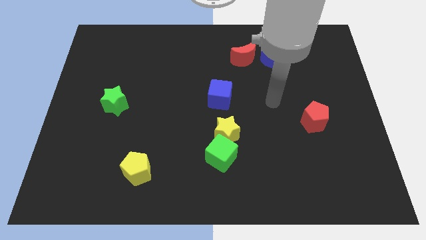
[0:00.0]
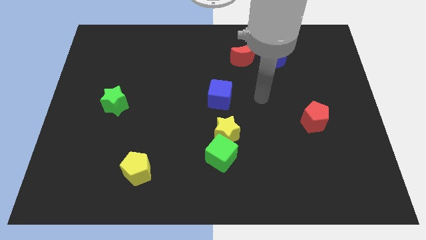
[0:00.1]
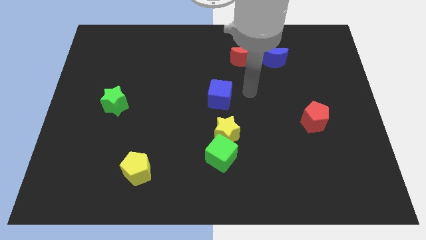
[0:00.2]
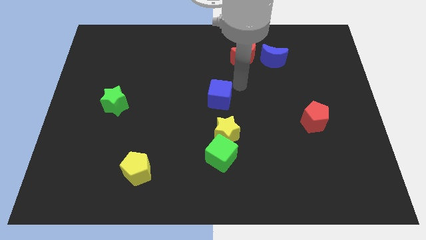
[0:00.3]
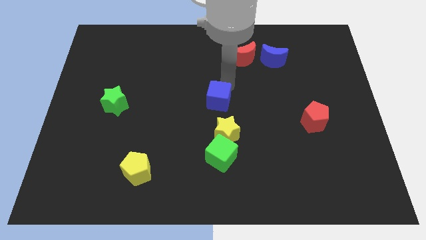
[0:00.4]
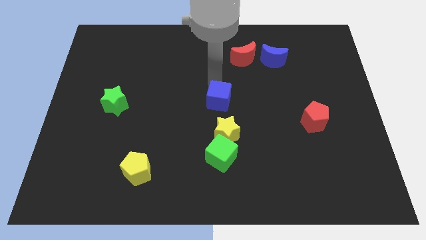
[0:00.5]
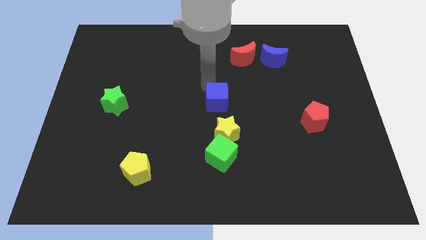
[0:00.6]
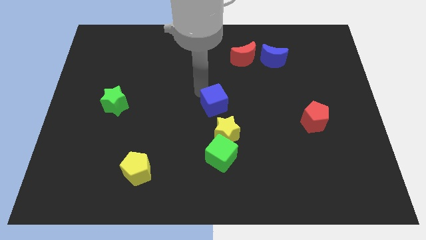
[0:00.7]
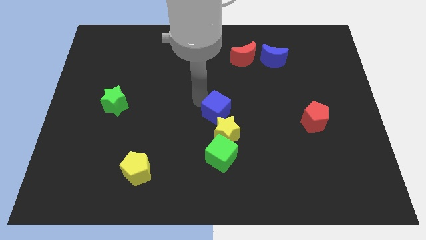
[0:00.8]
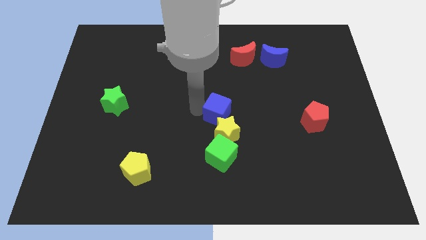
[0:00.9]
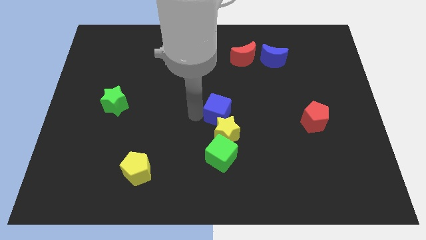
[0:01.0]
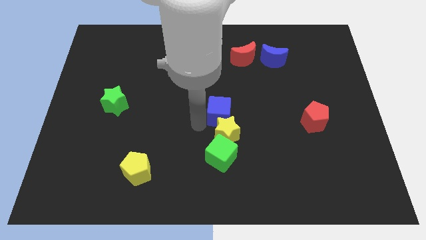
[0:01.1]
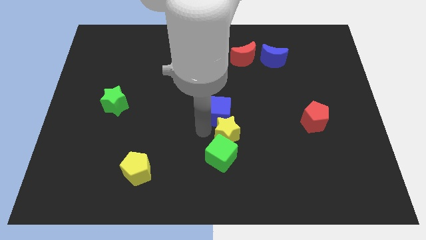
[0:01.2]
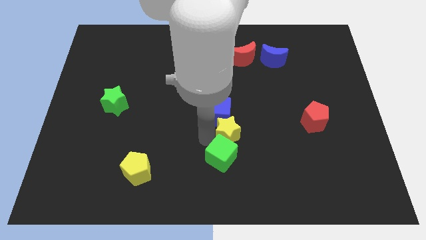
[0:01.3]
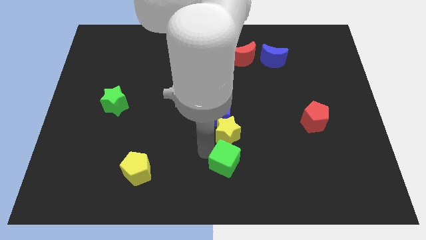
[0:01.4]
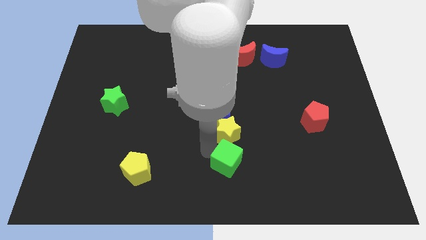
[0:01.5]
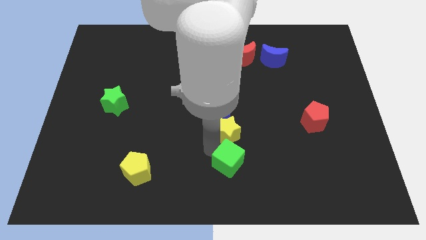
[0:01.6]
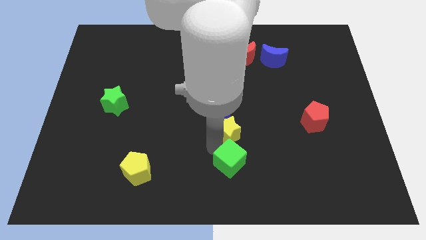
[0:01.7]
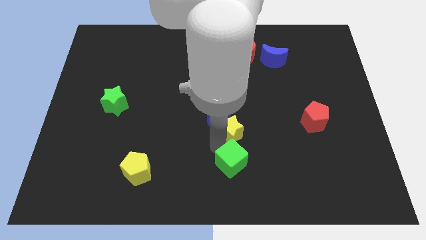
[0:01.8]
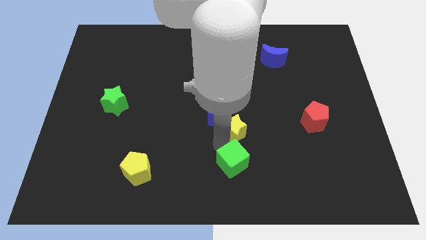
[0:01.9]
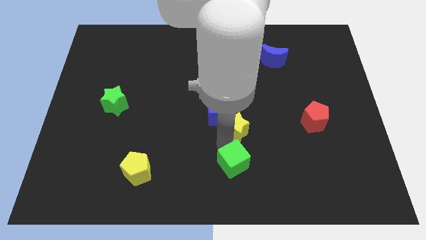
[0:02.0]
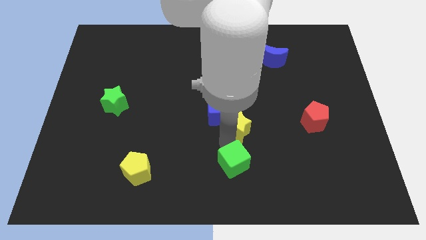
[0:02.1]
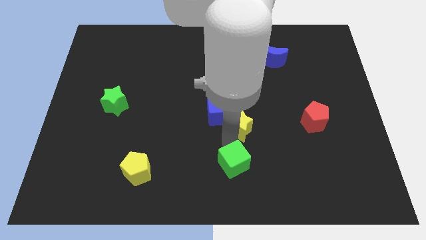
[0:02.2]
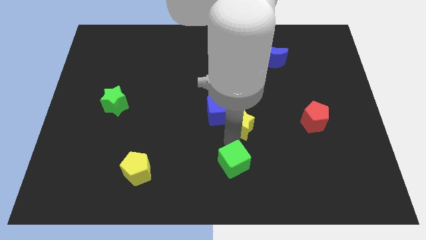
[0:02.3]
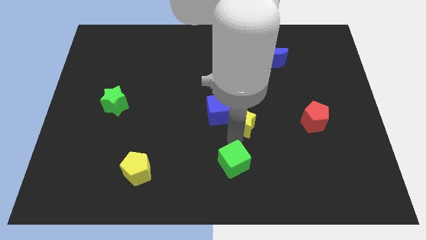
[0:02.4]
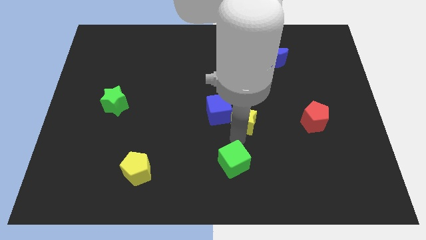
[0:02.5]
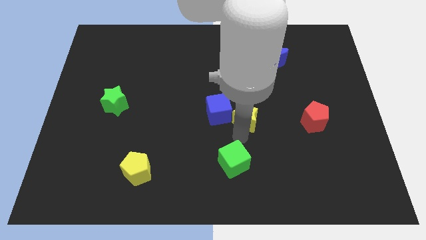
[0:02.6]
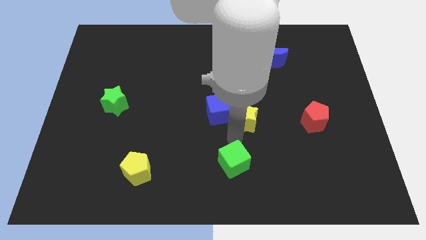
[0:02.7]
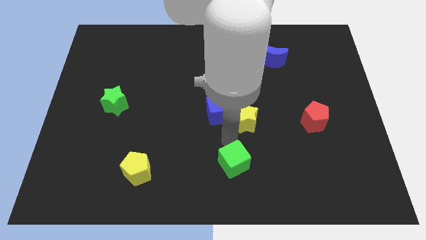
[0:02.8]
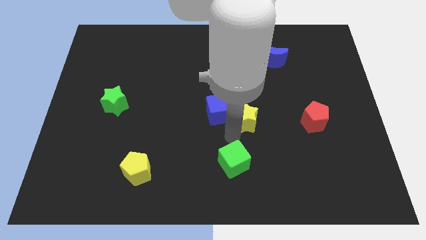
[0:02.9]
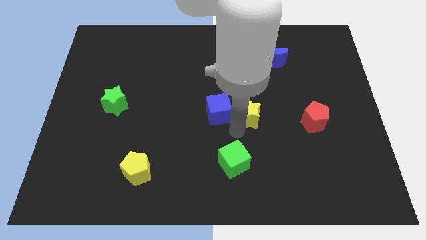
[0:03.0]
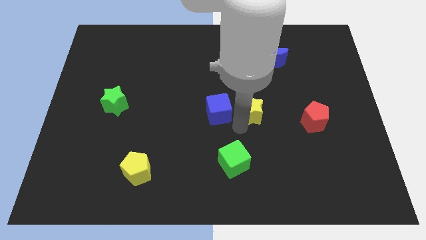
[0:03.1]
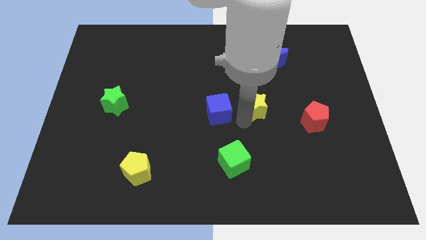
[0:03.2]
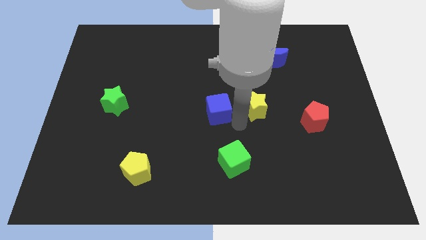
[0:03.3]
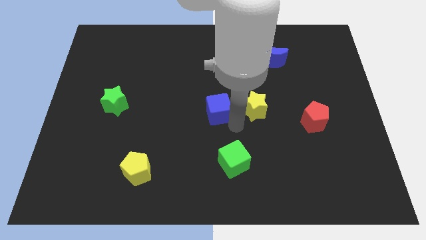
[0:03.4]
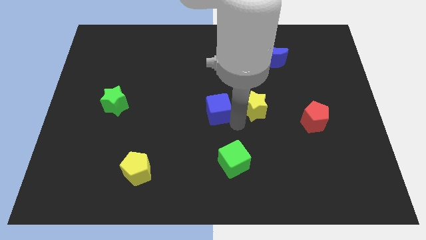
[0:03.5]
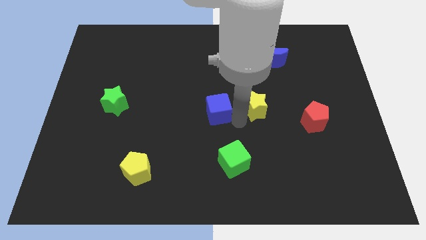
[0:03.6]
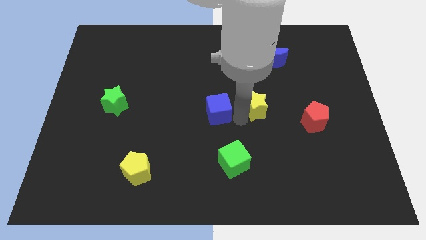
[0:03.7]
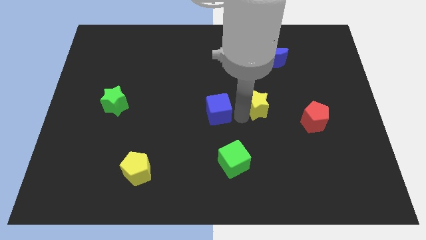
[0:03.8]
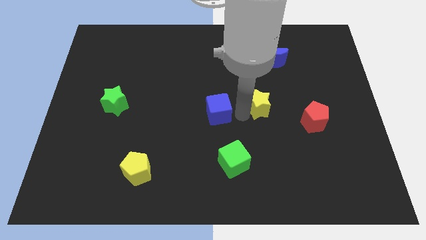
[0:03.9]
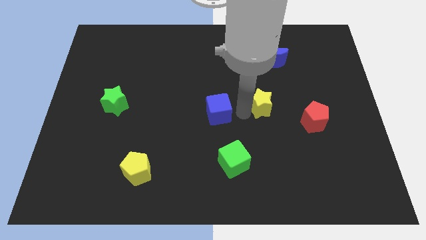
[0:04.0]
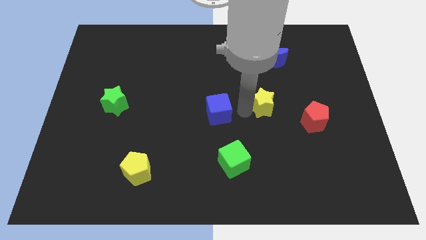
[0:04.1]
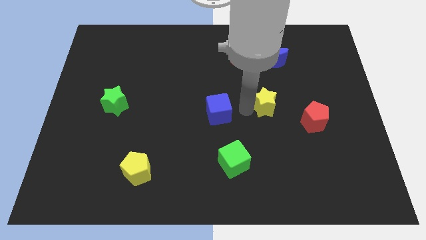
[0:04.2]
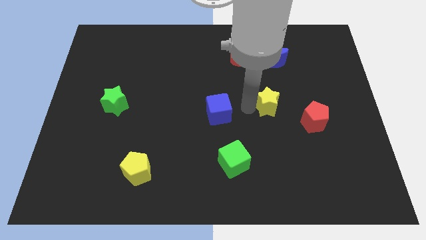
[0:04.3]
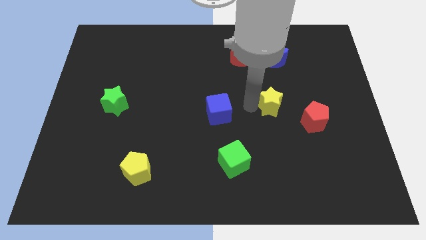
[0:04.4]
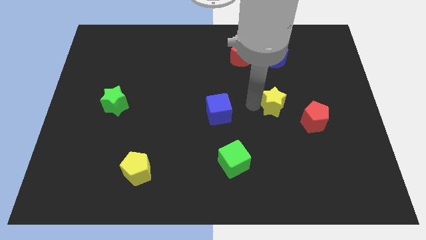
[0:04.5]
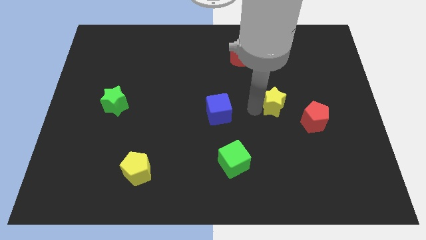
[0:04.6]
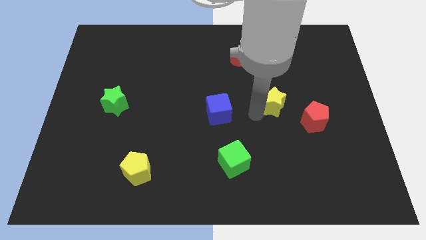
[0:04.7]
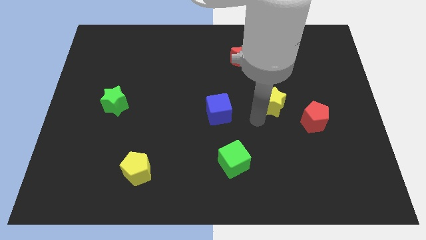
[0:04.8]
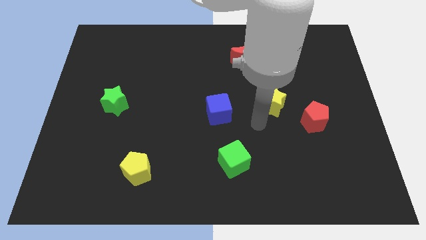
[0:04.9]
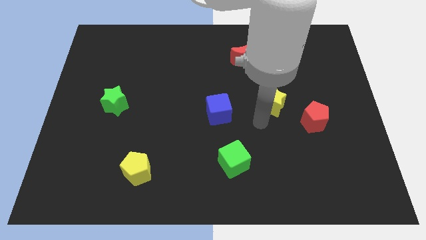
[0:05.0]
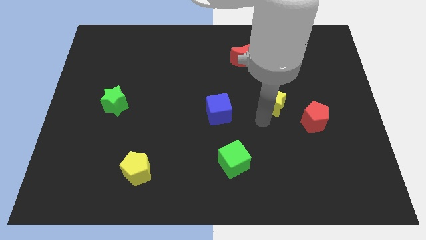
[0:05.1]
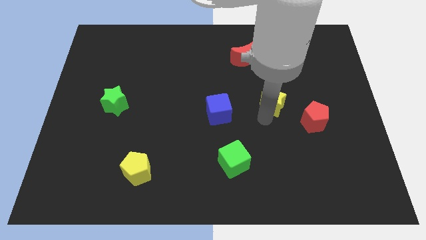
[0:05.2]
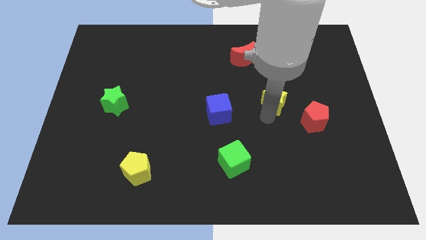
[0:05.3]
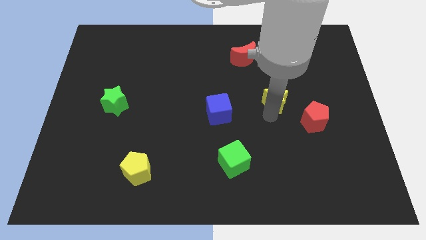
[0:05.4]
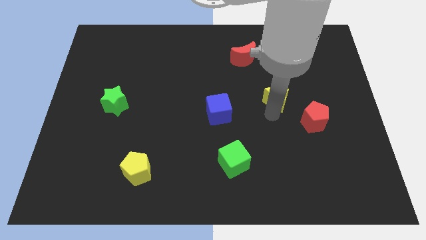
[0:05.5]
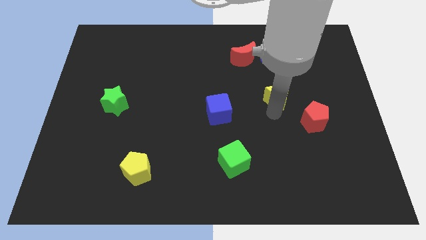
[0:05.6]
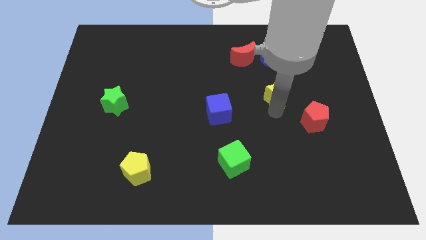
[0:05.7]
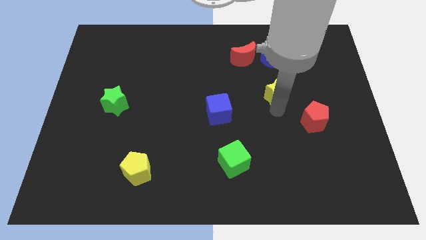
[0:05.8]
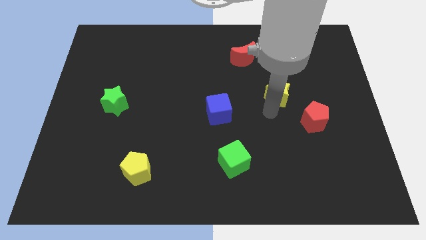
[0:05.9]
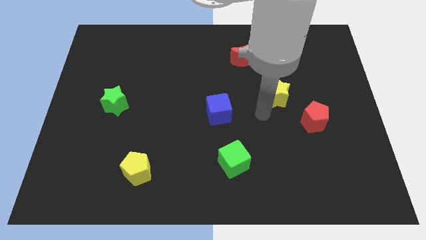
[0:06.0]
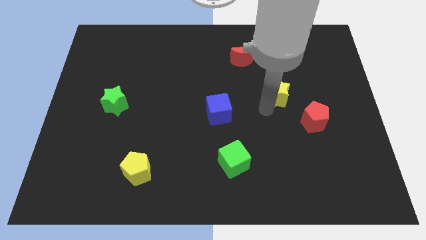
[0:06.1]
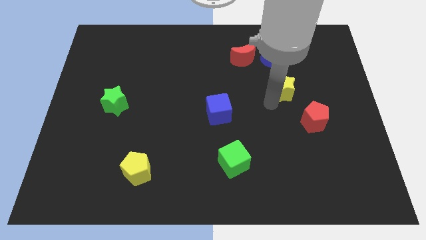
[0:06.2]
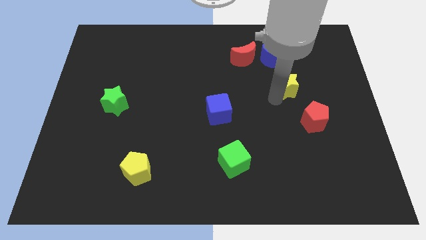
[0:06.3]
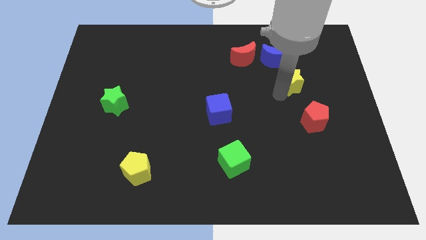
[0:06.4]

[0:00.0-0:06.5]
slide the yellow star to the bottom right side of the blue moon
